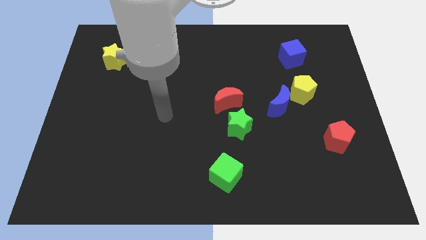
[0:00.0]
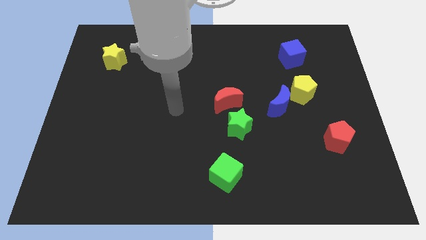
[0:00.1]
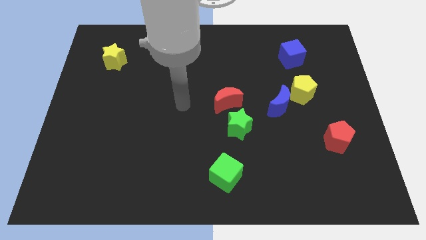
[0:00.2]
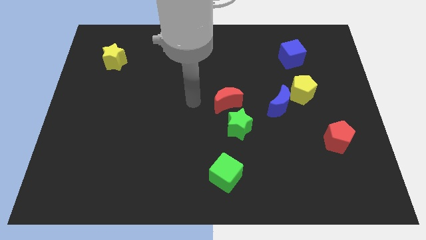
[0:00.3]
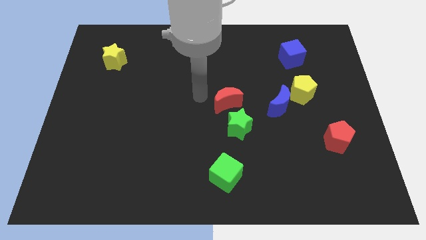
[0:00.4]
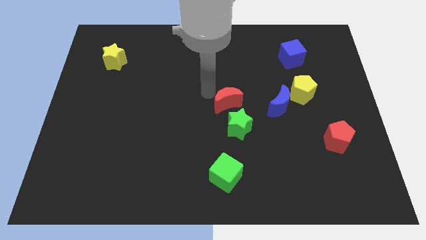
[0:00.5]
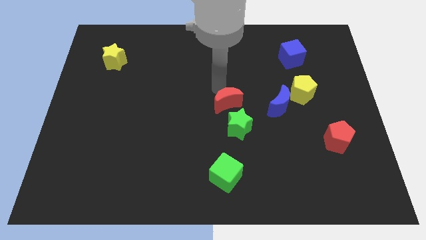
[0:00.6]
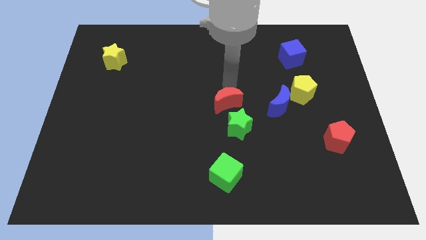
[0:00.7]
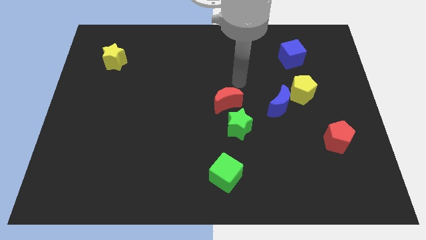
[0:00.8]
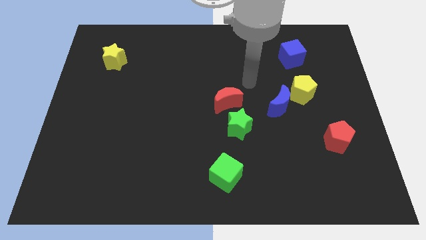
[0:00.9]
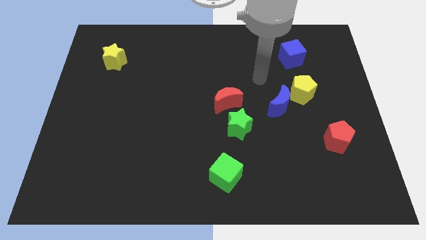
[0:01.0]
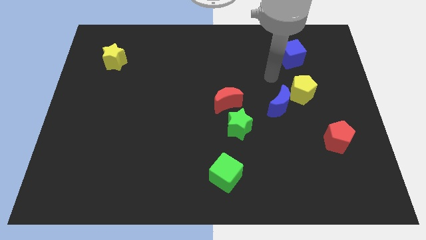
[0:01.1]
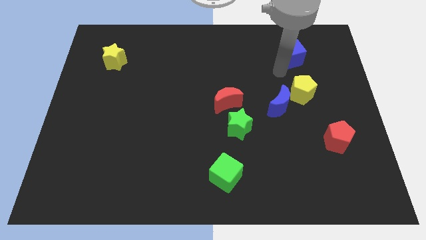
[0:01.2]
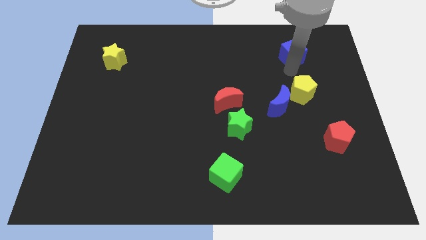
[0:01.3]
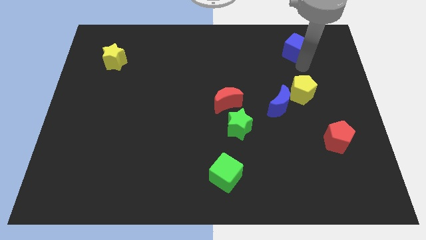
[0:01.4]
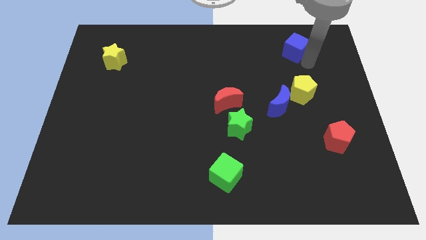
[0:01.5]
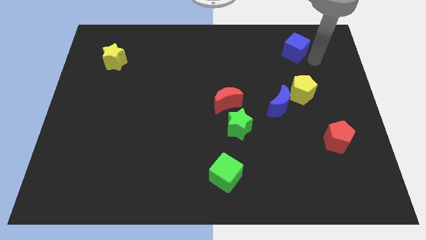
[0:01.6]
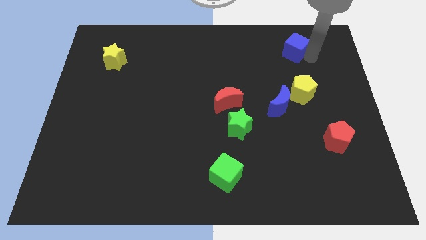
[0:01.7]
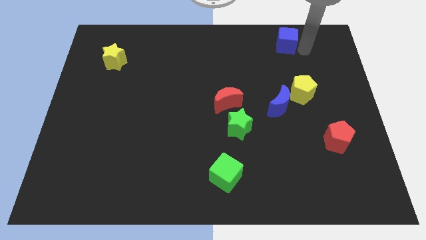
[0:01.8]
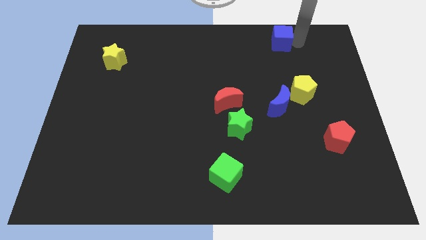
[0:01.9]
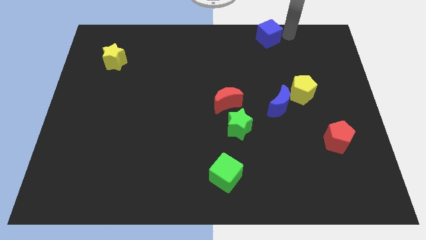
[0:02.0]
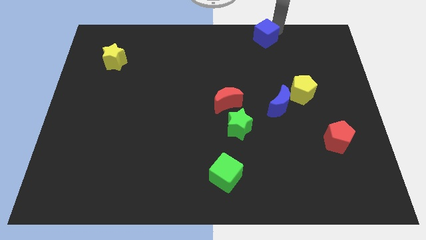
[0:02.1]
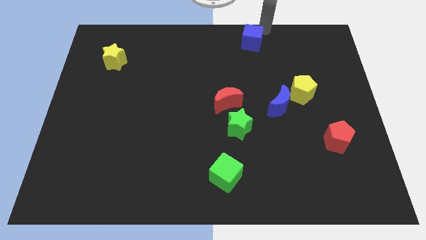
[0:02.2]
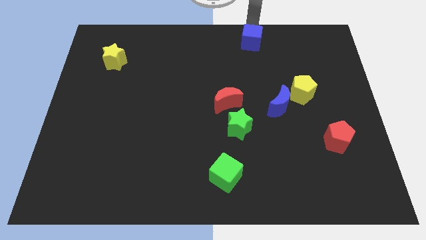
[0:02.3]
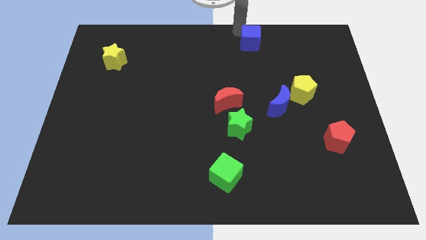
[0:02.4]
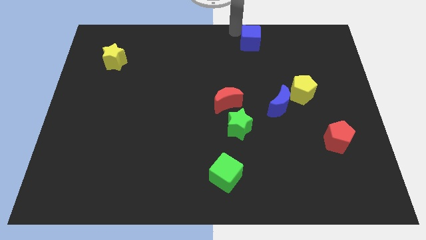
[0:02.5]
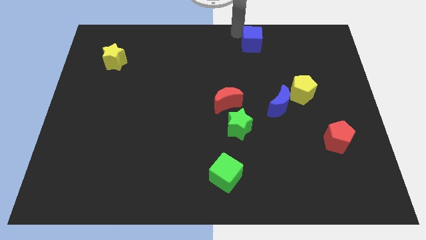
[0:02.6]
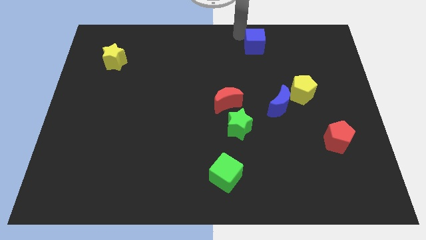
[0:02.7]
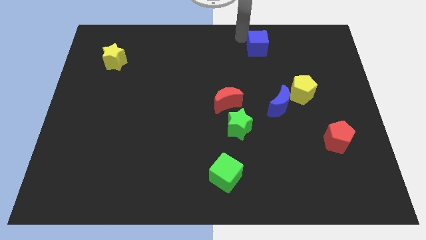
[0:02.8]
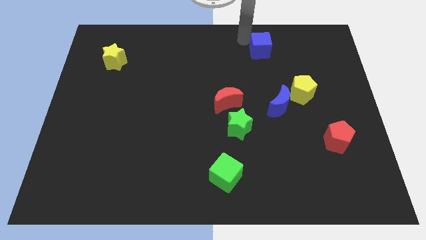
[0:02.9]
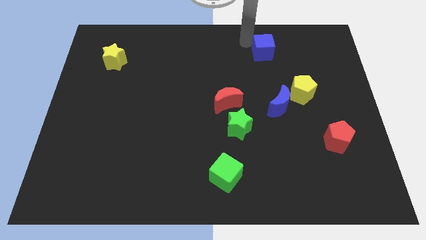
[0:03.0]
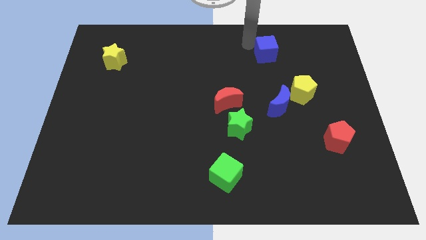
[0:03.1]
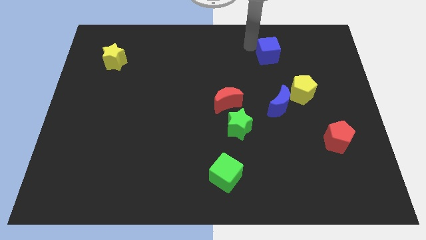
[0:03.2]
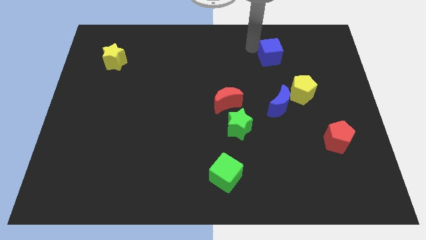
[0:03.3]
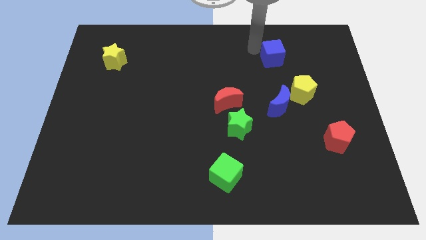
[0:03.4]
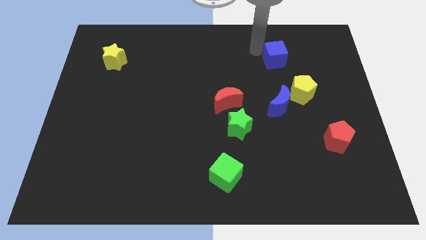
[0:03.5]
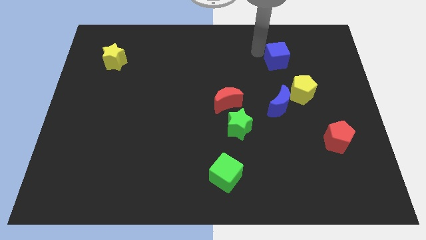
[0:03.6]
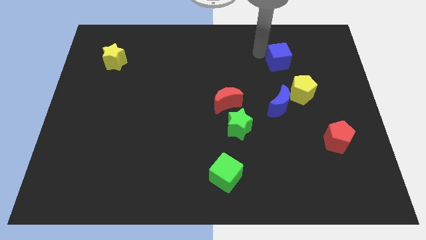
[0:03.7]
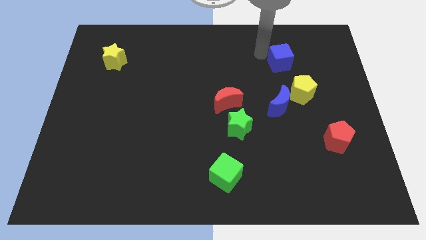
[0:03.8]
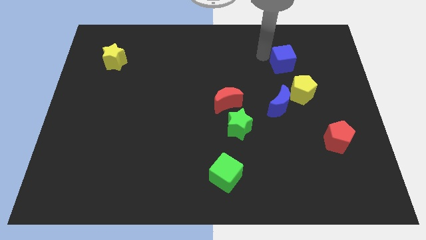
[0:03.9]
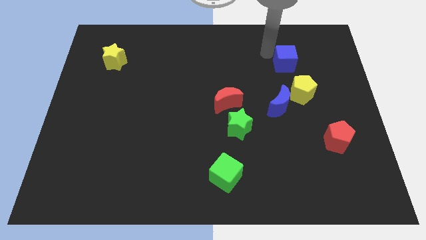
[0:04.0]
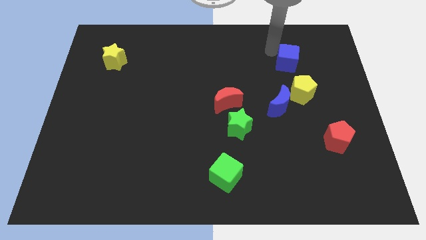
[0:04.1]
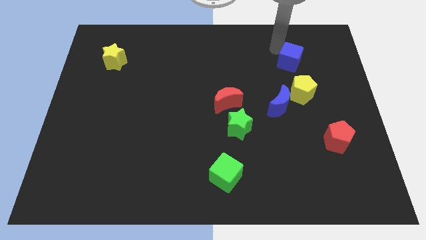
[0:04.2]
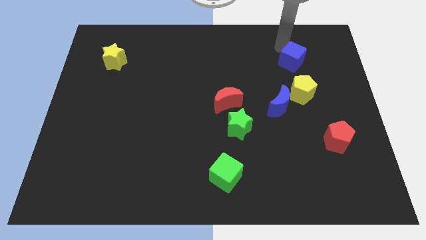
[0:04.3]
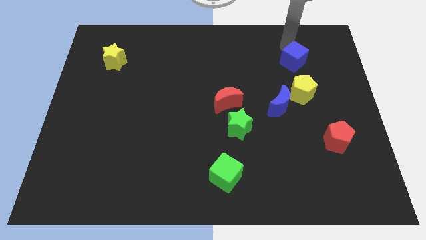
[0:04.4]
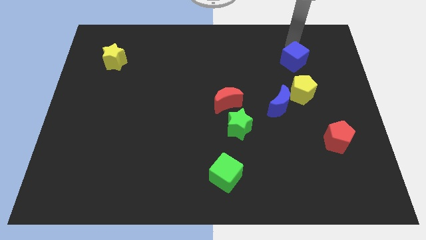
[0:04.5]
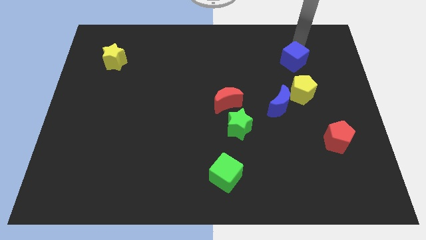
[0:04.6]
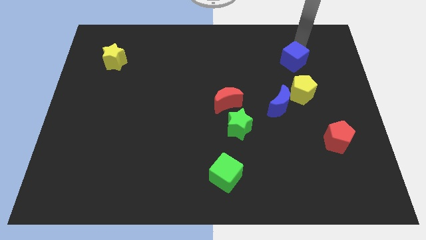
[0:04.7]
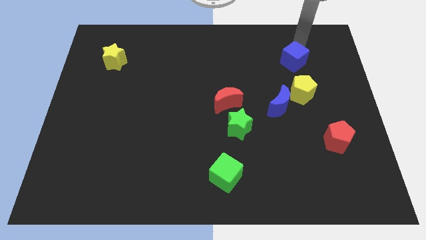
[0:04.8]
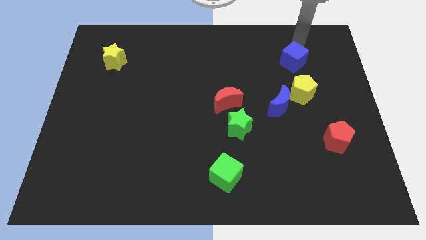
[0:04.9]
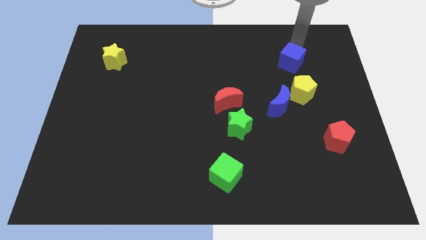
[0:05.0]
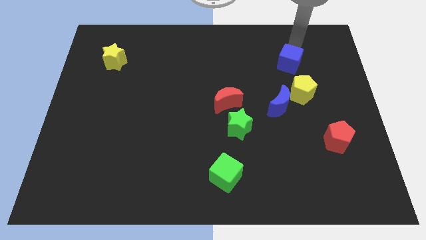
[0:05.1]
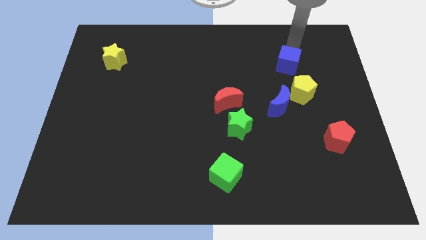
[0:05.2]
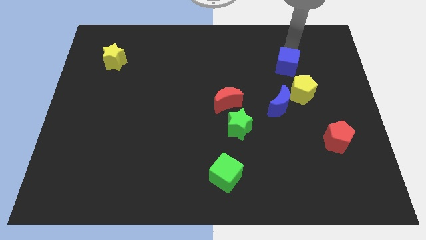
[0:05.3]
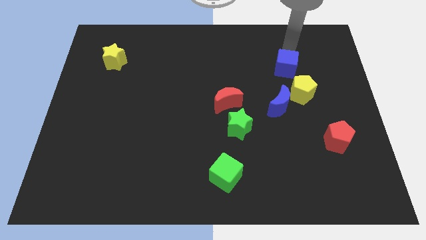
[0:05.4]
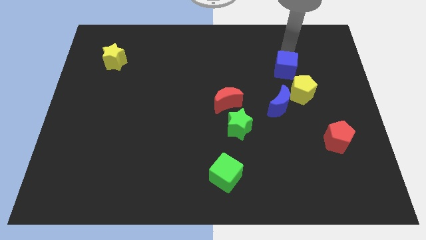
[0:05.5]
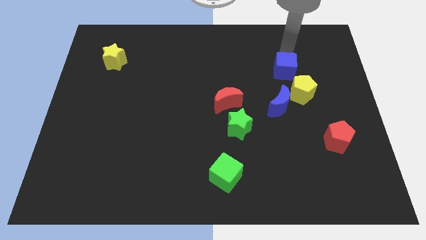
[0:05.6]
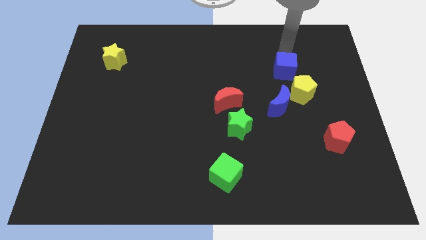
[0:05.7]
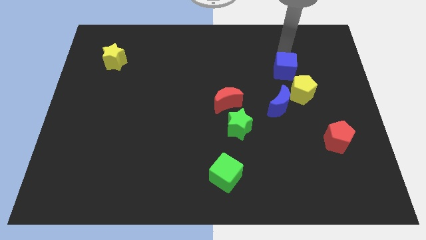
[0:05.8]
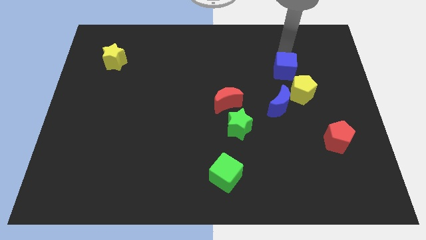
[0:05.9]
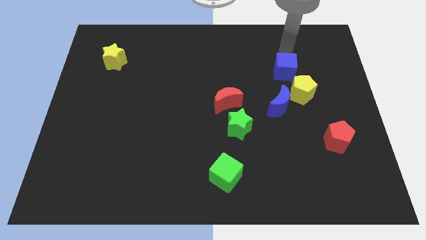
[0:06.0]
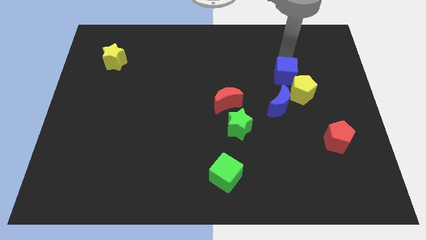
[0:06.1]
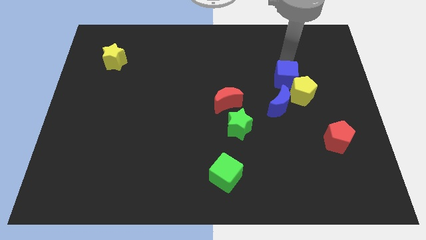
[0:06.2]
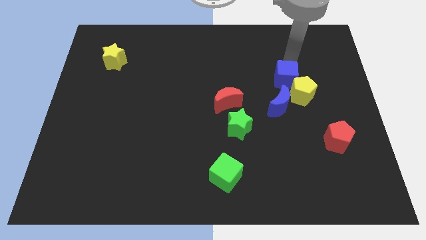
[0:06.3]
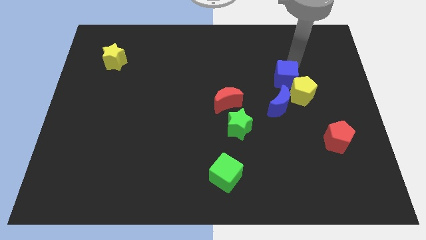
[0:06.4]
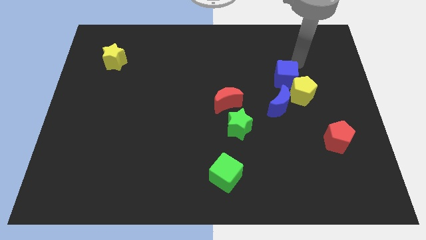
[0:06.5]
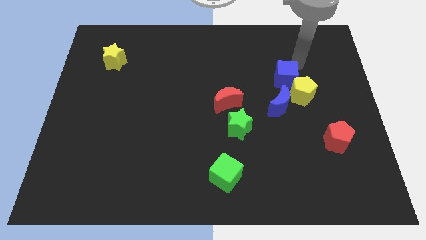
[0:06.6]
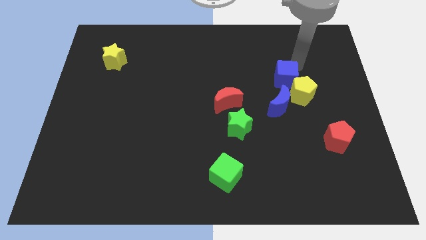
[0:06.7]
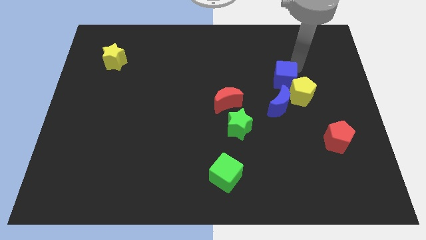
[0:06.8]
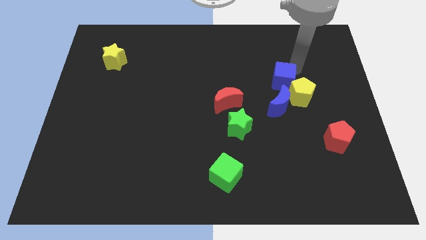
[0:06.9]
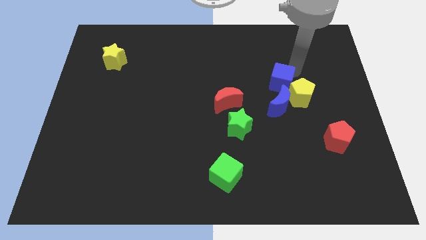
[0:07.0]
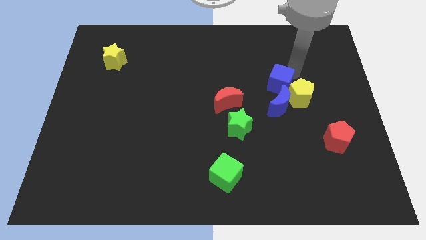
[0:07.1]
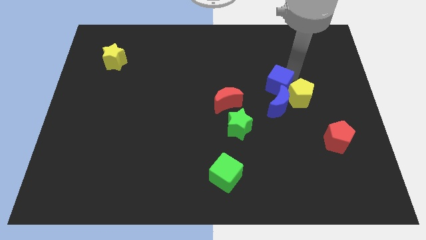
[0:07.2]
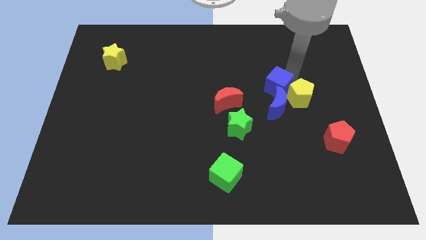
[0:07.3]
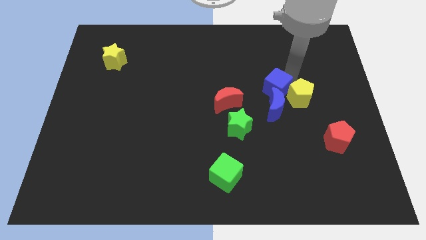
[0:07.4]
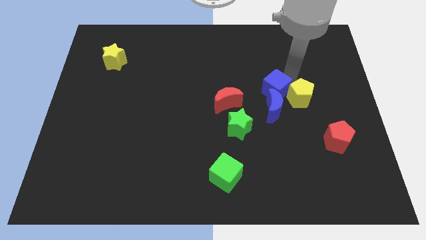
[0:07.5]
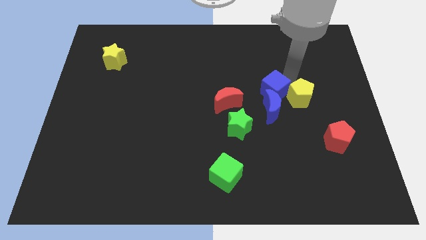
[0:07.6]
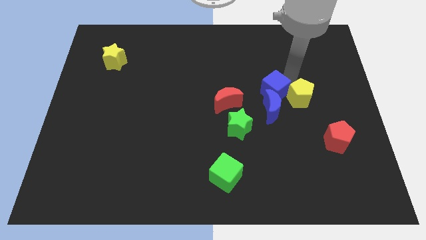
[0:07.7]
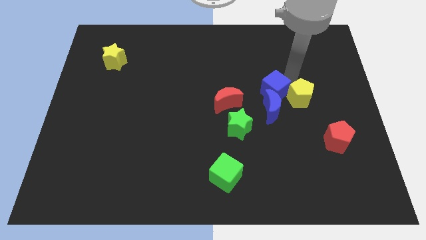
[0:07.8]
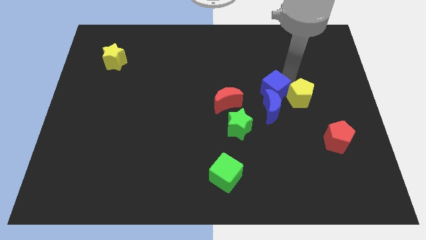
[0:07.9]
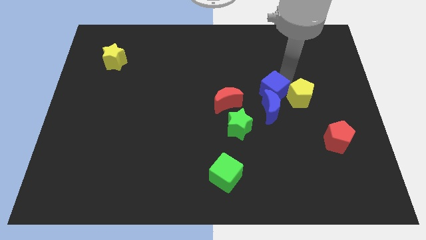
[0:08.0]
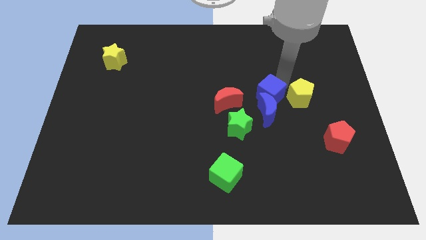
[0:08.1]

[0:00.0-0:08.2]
put the blue cube to the top right side of the green star
